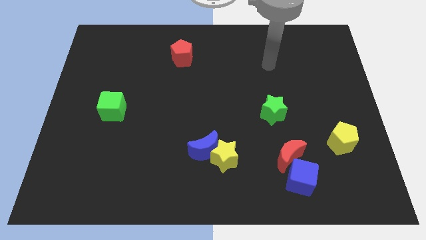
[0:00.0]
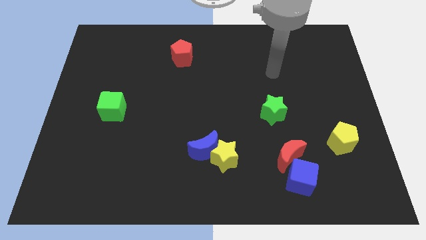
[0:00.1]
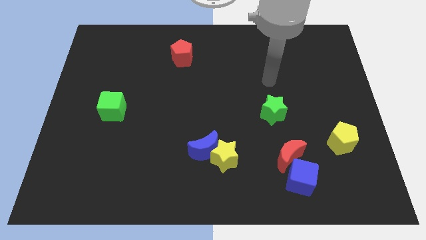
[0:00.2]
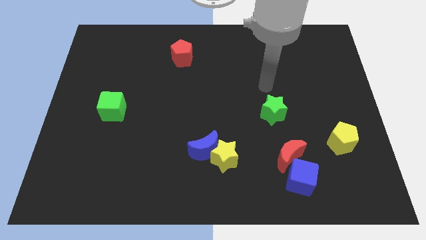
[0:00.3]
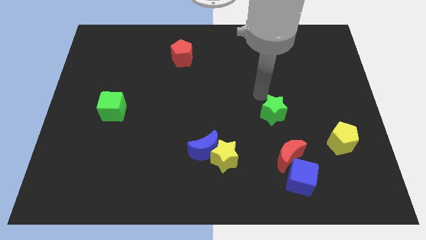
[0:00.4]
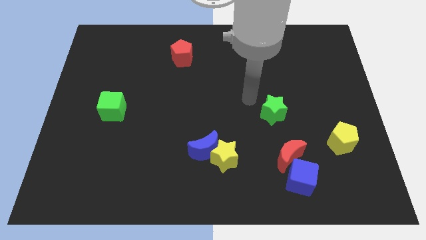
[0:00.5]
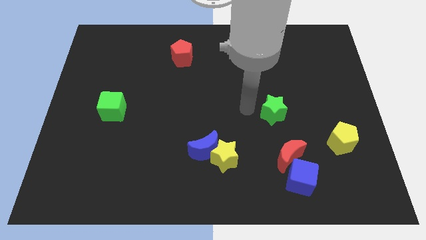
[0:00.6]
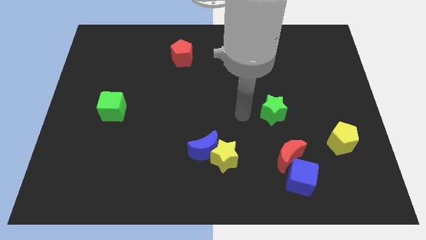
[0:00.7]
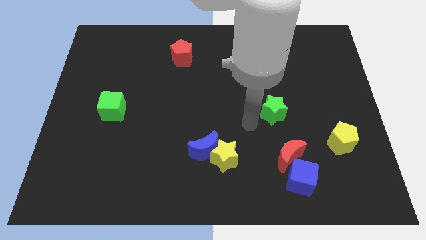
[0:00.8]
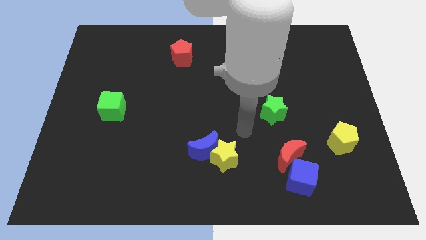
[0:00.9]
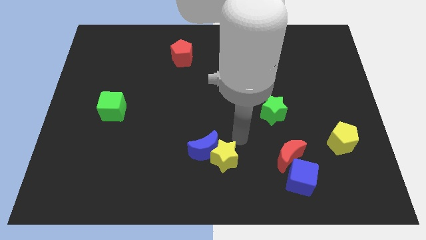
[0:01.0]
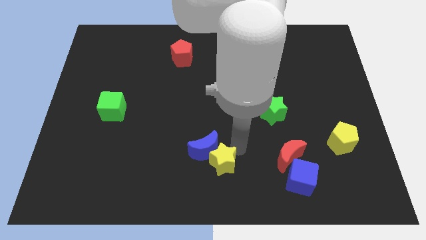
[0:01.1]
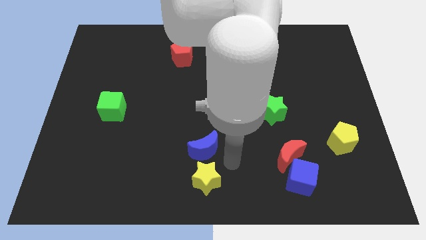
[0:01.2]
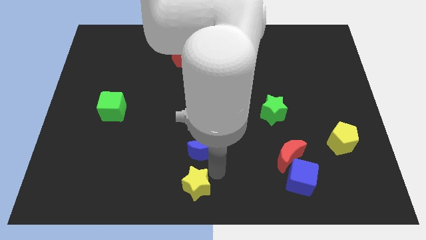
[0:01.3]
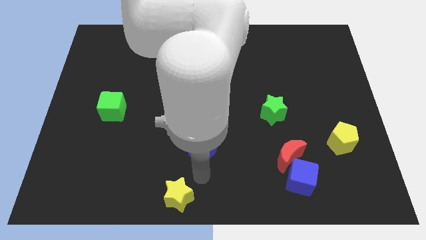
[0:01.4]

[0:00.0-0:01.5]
pull the blue moon apart from the yellow star

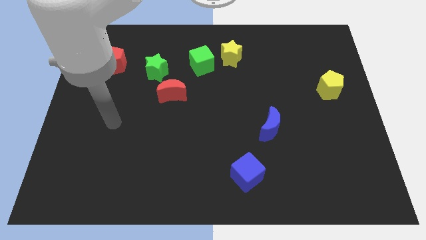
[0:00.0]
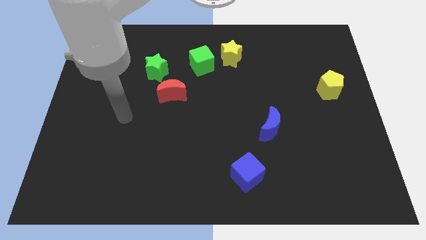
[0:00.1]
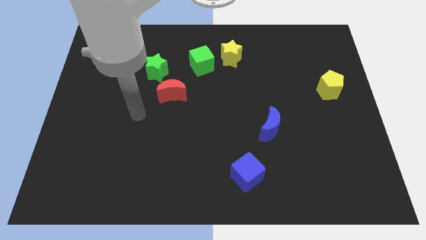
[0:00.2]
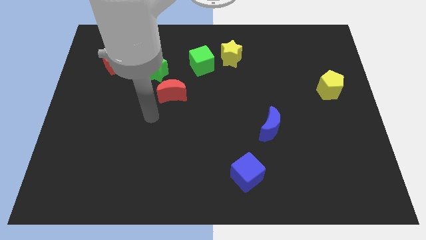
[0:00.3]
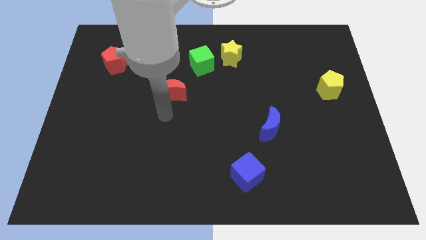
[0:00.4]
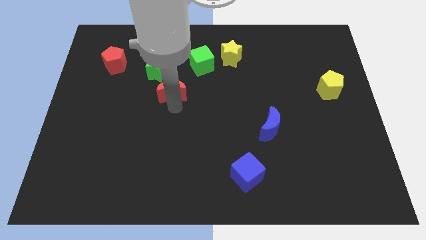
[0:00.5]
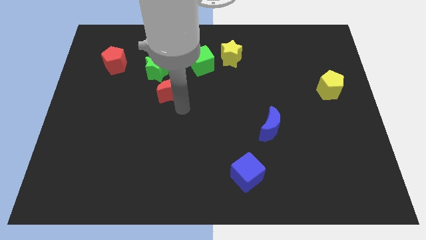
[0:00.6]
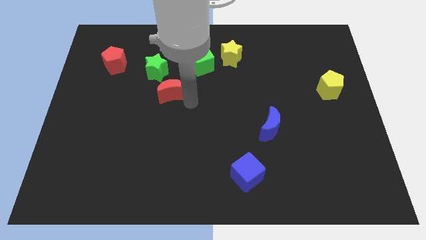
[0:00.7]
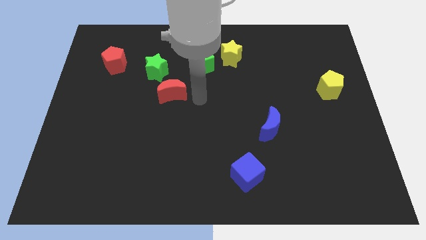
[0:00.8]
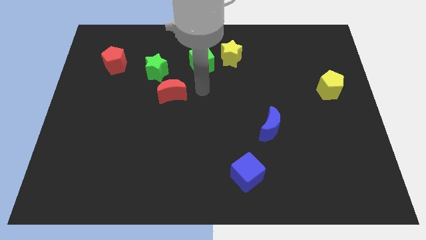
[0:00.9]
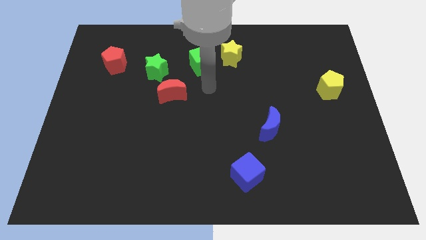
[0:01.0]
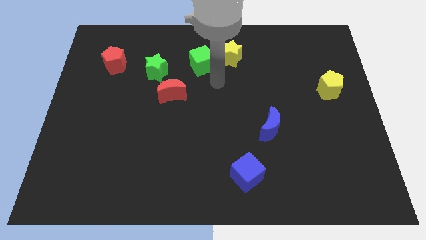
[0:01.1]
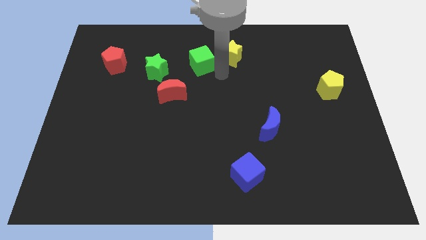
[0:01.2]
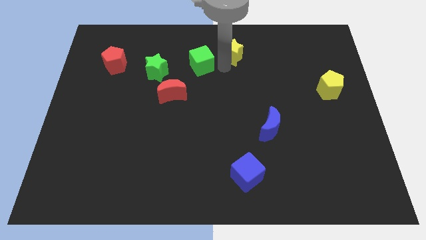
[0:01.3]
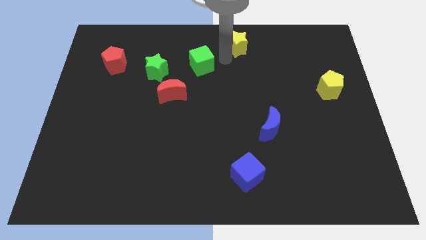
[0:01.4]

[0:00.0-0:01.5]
pull the green cube apart from the yellow star

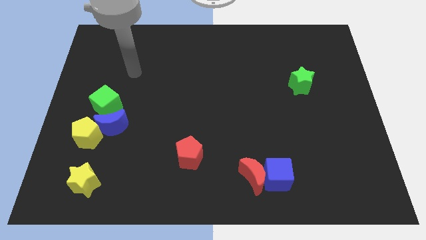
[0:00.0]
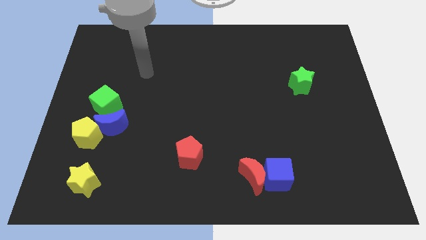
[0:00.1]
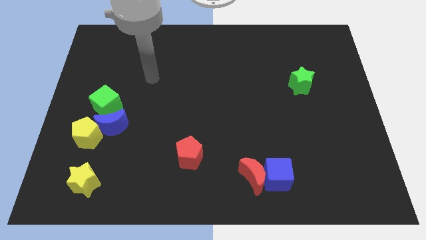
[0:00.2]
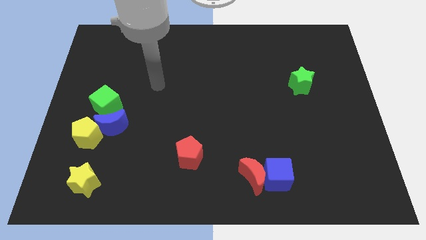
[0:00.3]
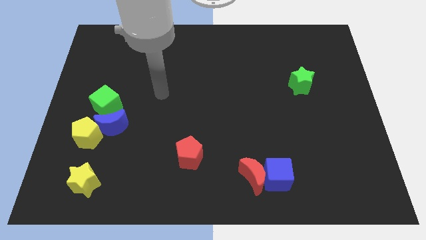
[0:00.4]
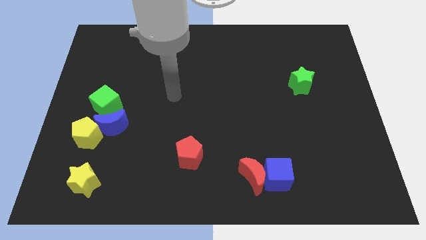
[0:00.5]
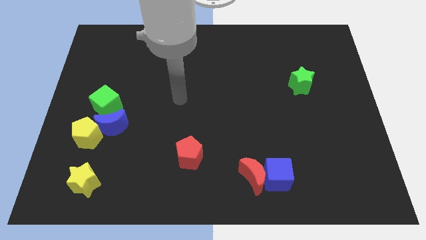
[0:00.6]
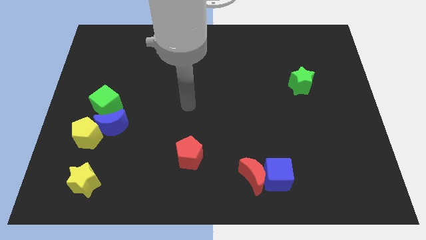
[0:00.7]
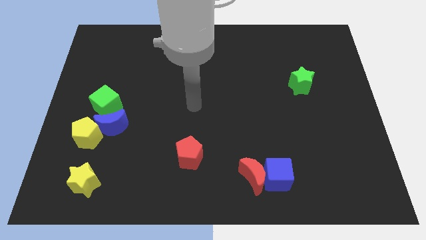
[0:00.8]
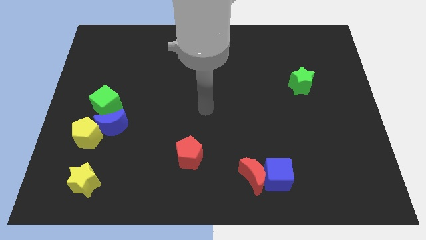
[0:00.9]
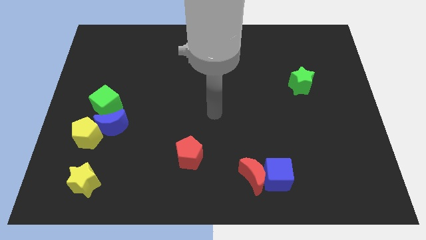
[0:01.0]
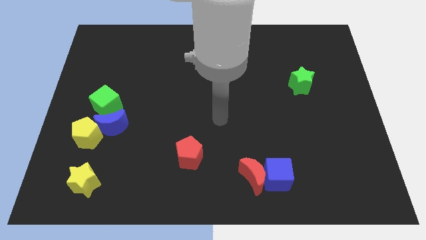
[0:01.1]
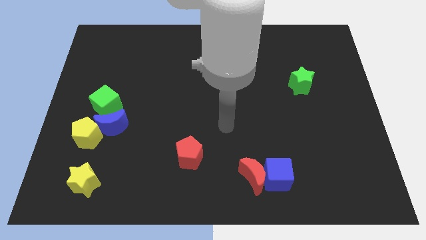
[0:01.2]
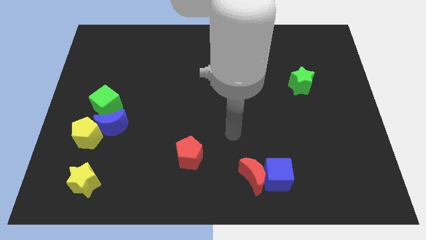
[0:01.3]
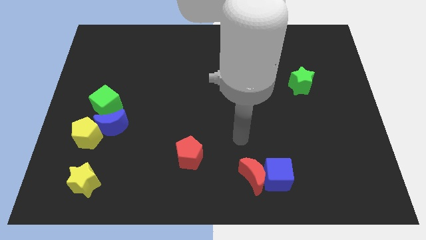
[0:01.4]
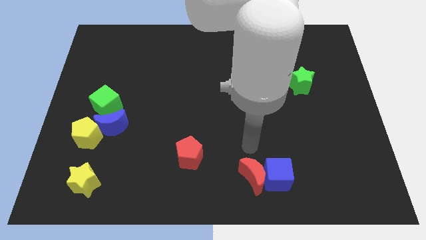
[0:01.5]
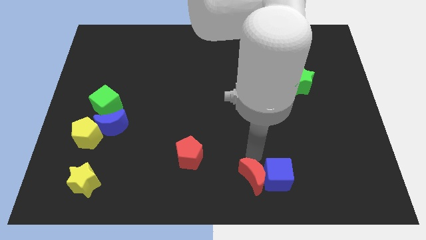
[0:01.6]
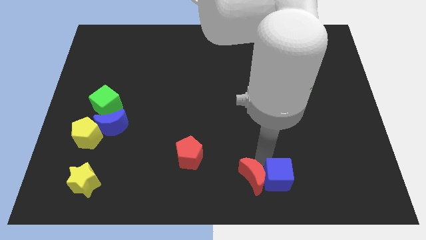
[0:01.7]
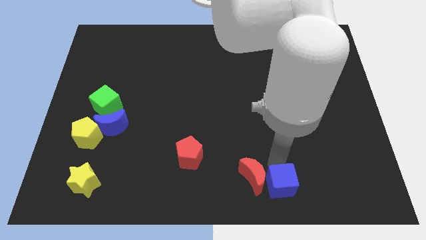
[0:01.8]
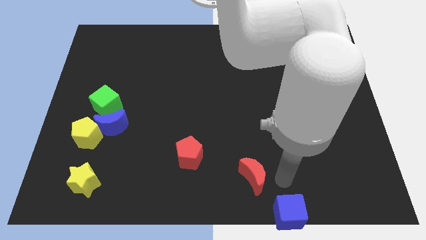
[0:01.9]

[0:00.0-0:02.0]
move the red moon away from the blue cube

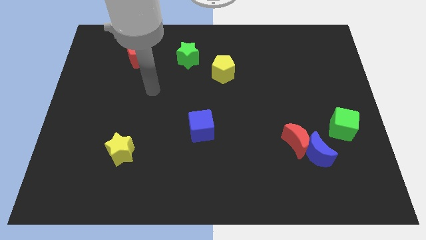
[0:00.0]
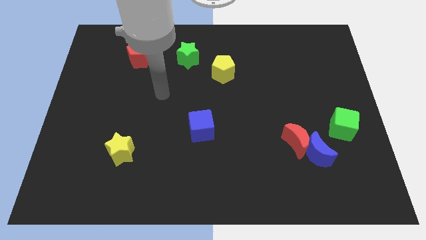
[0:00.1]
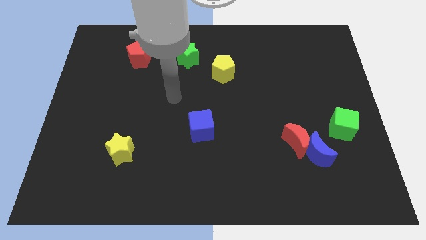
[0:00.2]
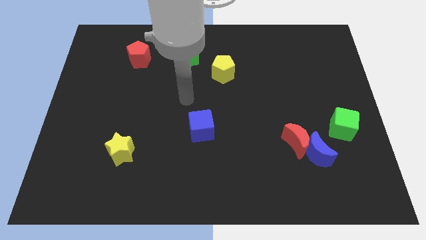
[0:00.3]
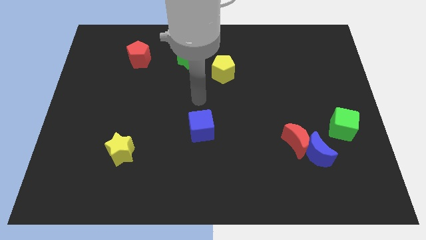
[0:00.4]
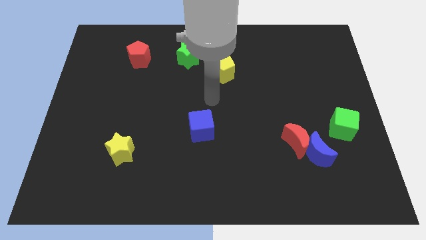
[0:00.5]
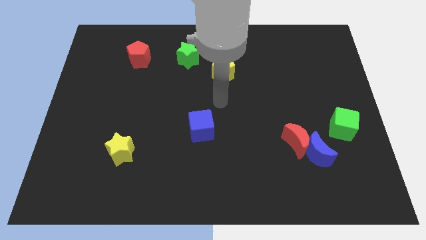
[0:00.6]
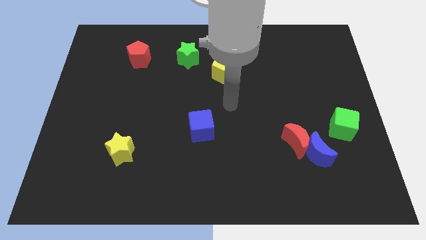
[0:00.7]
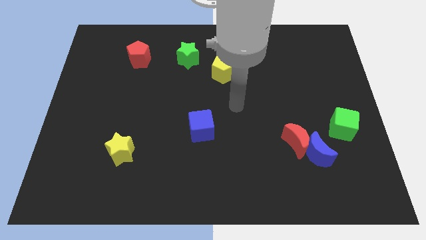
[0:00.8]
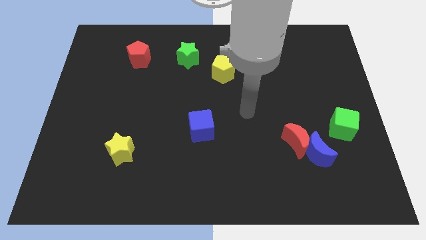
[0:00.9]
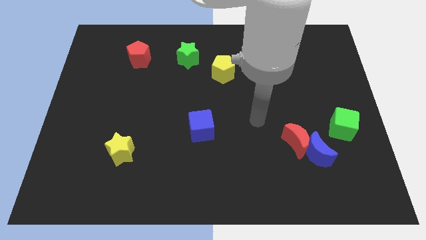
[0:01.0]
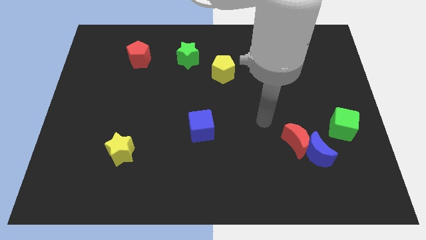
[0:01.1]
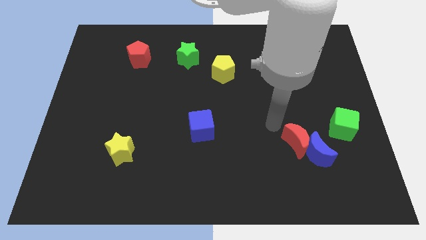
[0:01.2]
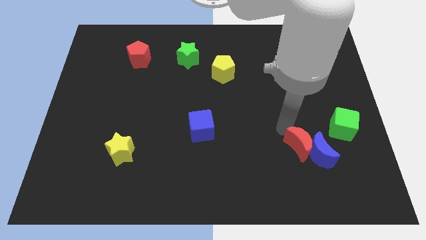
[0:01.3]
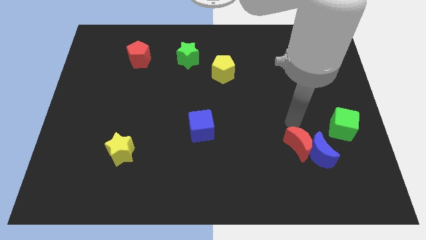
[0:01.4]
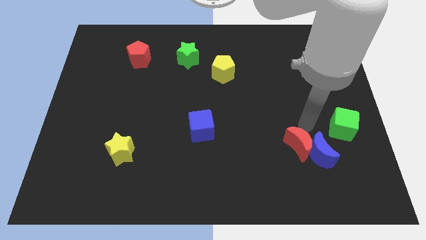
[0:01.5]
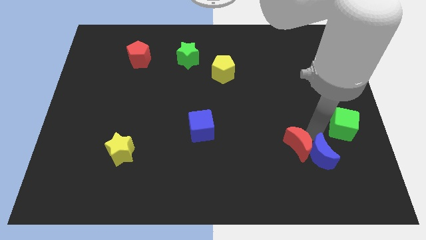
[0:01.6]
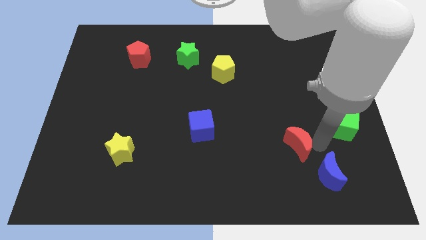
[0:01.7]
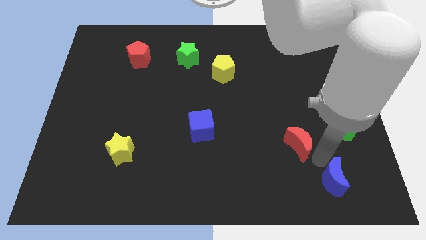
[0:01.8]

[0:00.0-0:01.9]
move the red moon away from the blue moon

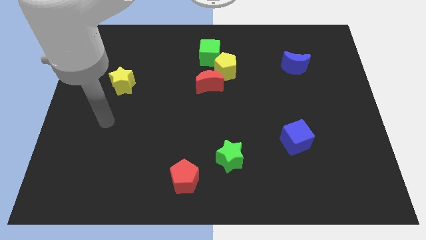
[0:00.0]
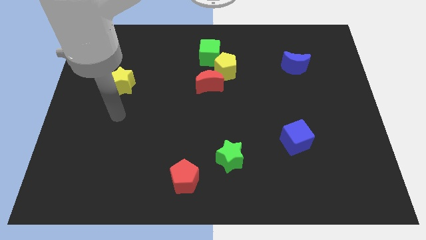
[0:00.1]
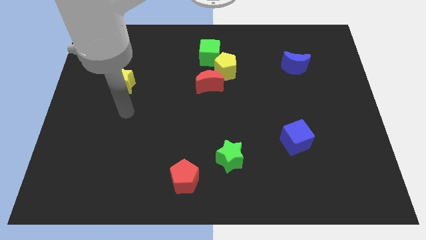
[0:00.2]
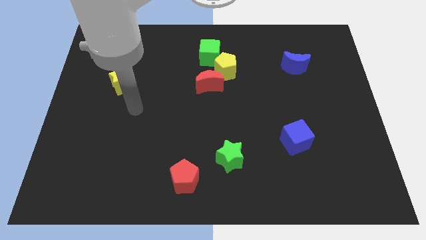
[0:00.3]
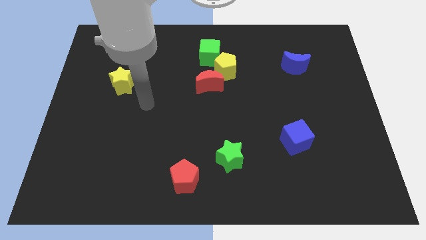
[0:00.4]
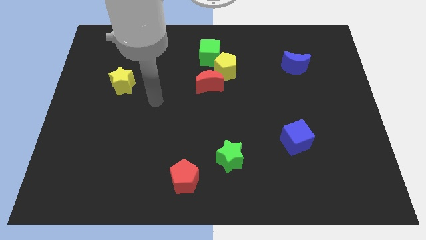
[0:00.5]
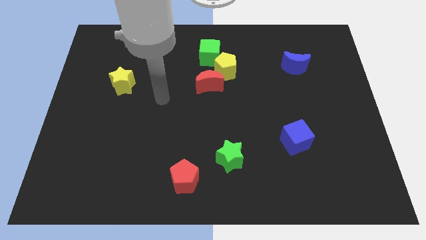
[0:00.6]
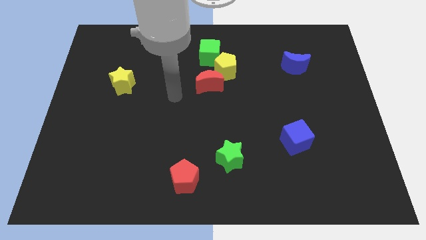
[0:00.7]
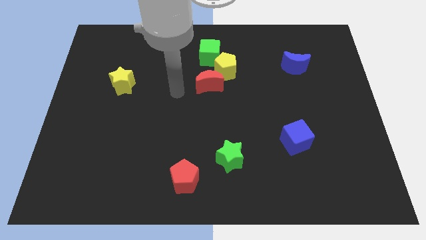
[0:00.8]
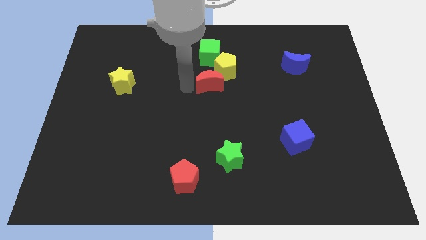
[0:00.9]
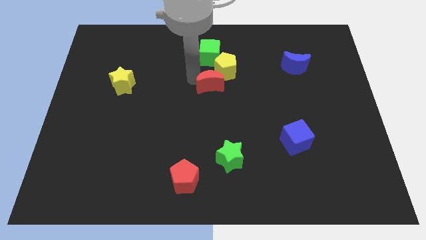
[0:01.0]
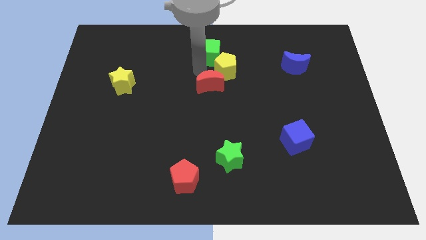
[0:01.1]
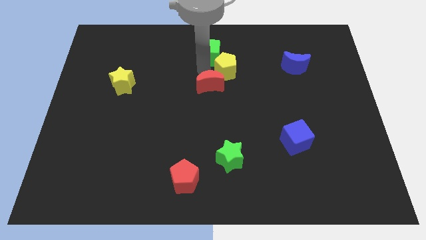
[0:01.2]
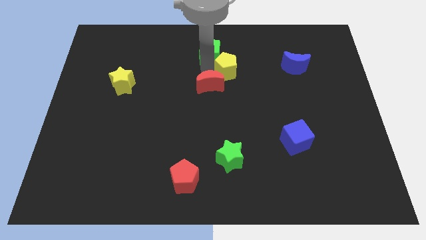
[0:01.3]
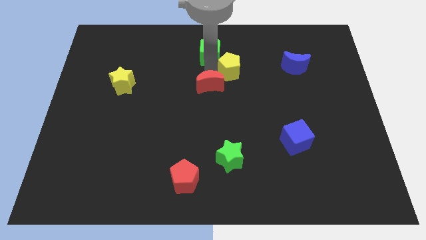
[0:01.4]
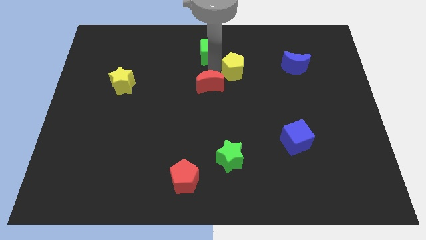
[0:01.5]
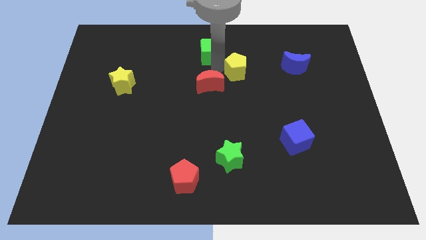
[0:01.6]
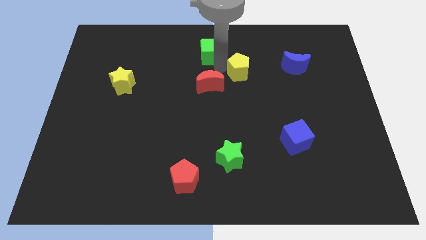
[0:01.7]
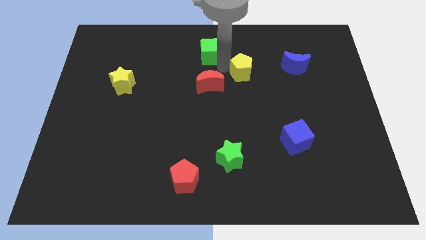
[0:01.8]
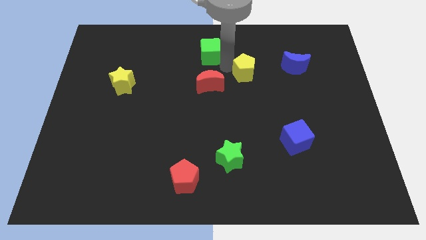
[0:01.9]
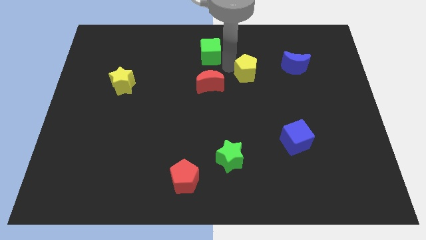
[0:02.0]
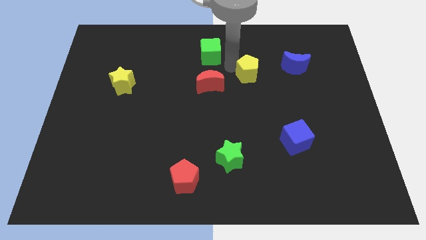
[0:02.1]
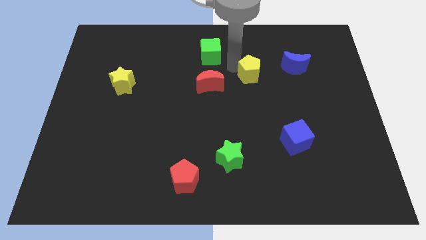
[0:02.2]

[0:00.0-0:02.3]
separate the yellow pentagon from the red moon and green cube
